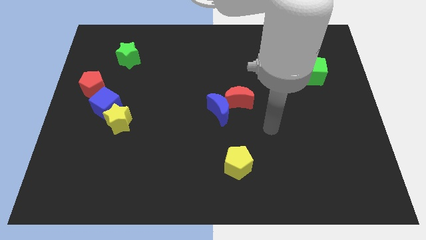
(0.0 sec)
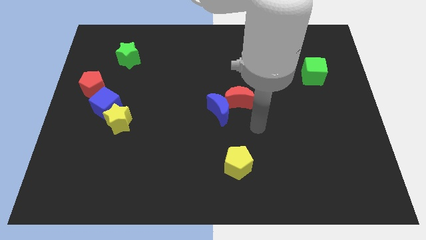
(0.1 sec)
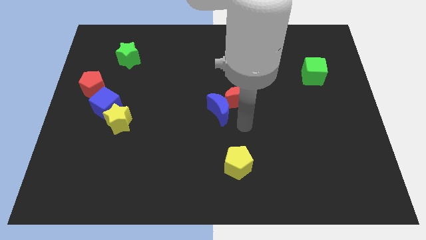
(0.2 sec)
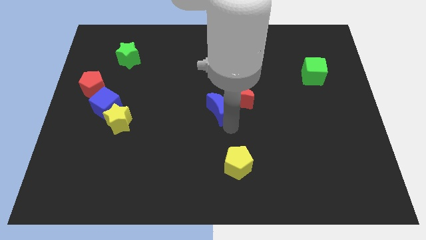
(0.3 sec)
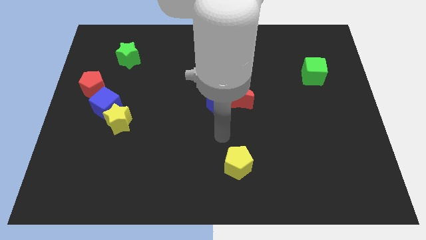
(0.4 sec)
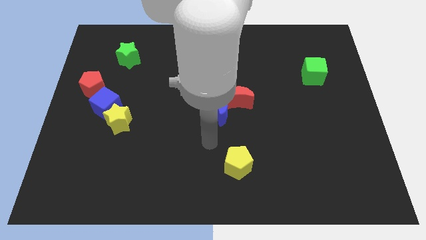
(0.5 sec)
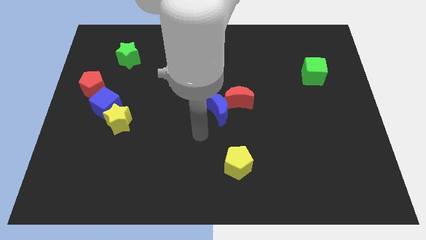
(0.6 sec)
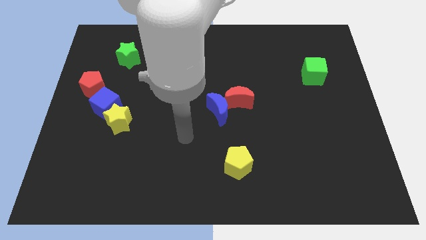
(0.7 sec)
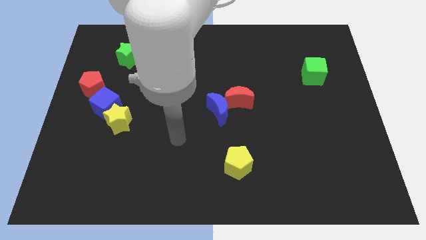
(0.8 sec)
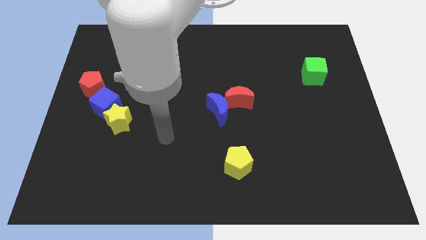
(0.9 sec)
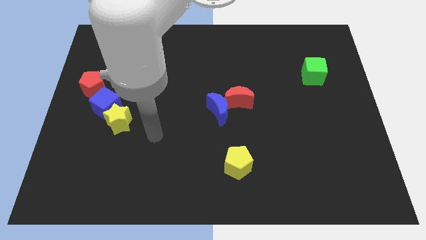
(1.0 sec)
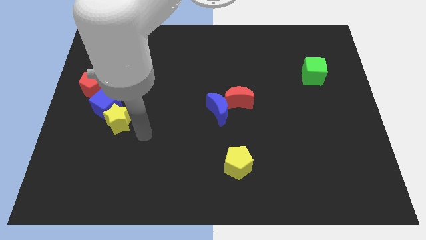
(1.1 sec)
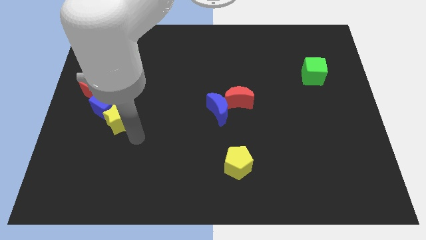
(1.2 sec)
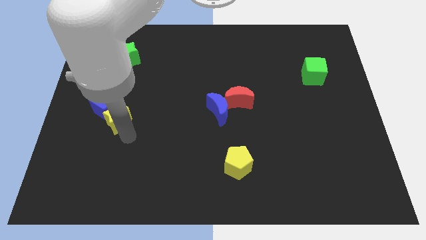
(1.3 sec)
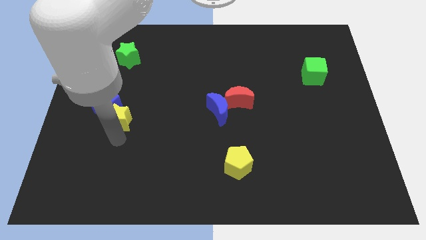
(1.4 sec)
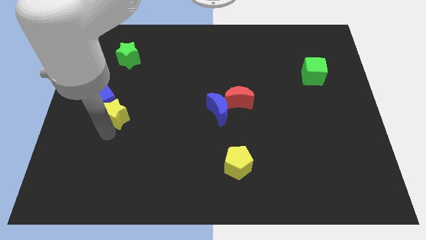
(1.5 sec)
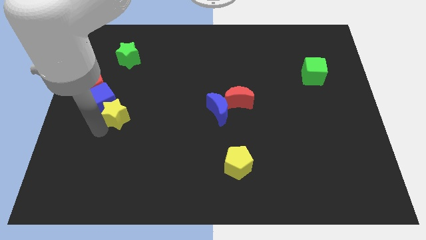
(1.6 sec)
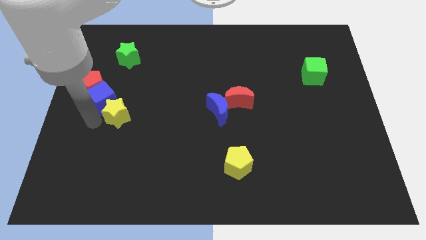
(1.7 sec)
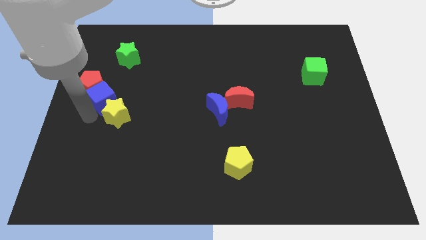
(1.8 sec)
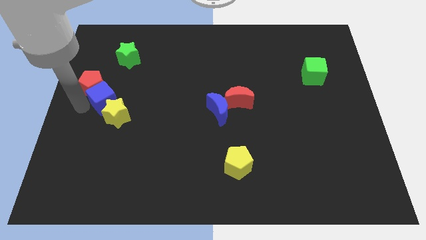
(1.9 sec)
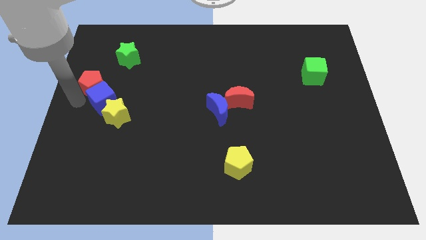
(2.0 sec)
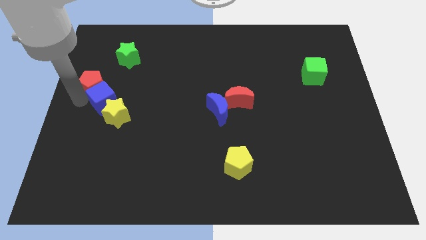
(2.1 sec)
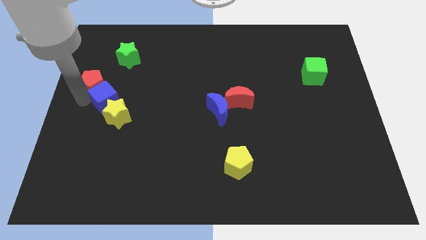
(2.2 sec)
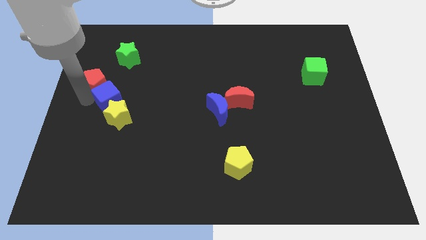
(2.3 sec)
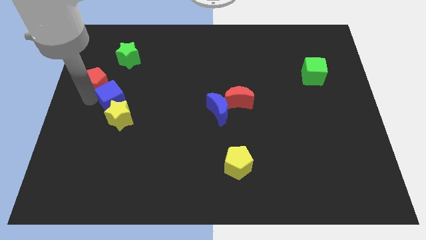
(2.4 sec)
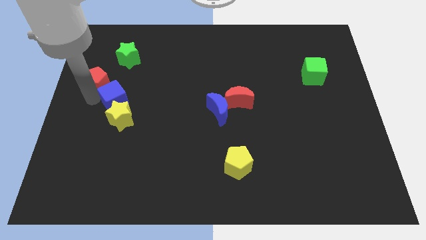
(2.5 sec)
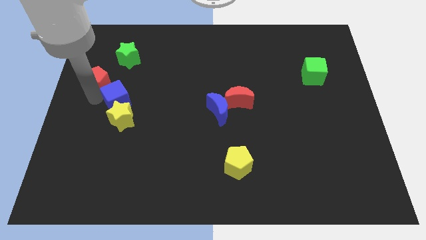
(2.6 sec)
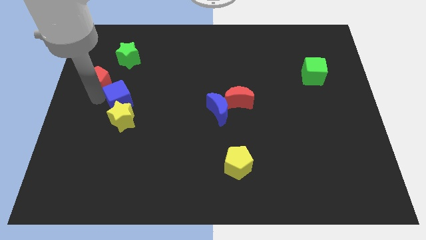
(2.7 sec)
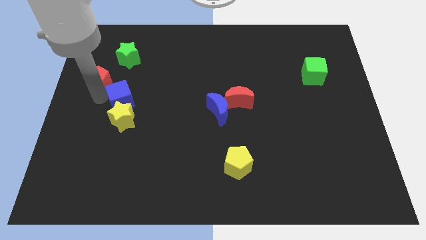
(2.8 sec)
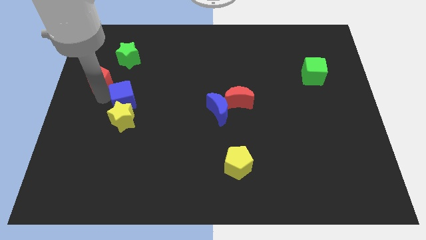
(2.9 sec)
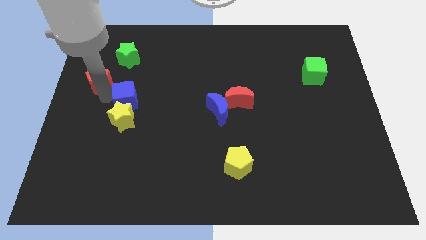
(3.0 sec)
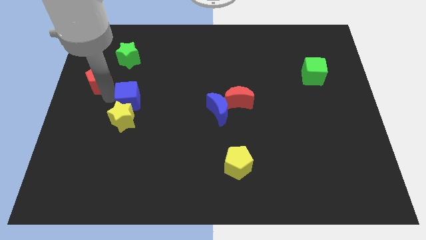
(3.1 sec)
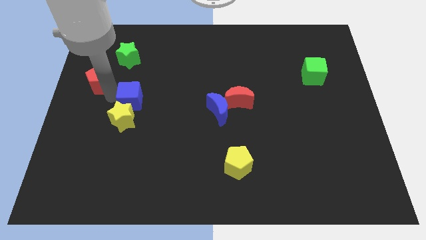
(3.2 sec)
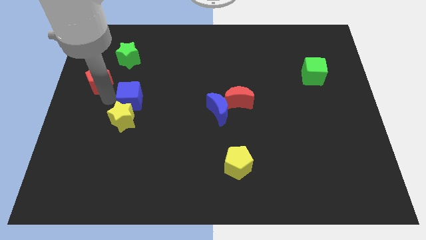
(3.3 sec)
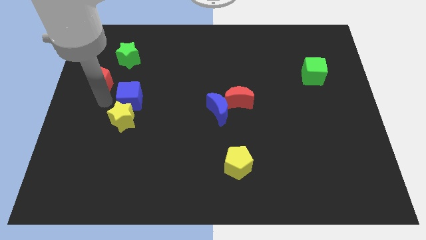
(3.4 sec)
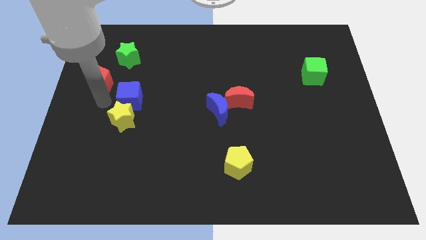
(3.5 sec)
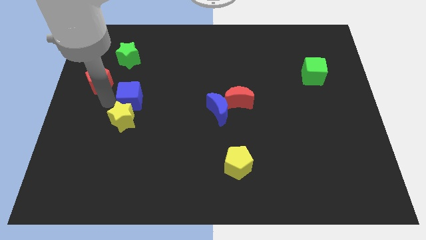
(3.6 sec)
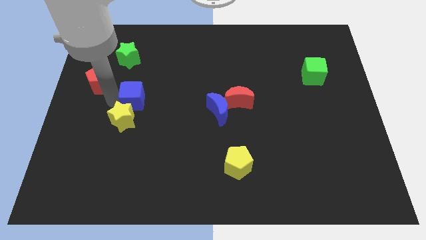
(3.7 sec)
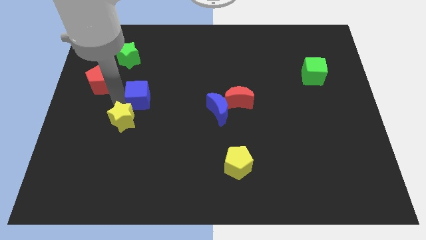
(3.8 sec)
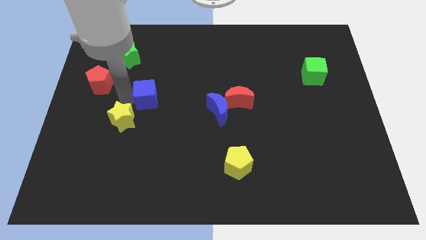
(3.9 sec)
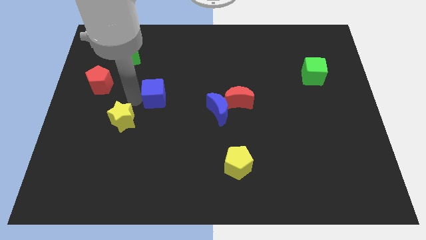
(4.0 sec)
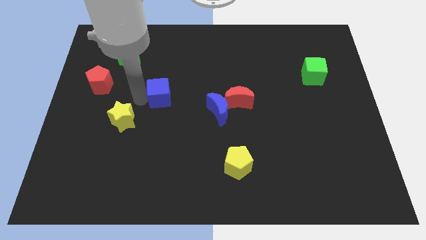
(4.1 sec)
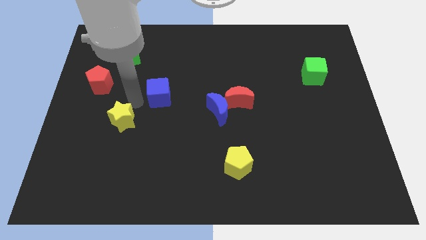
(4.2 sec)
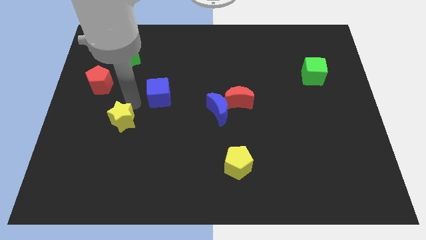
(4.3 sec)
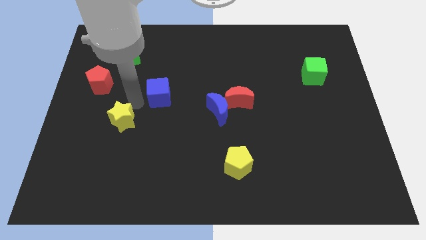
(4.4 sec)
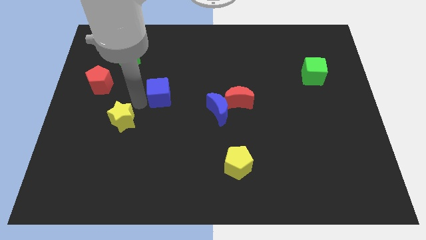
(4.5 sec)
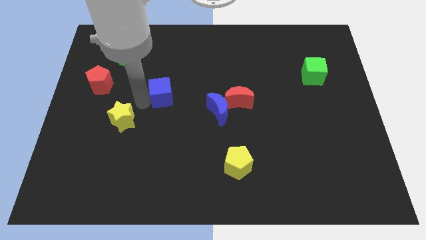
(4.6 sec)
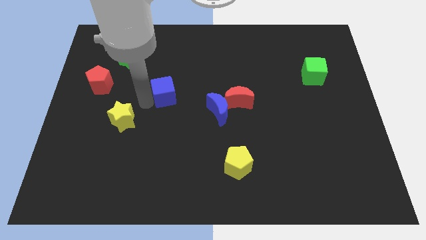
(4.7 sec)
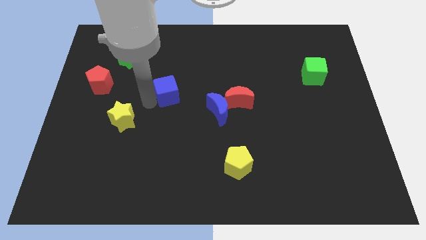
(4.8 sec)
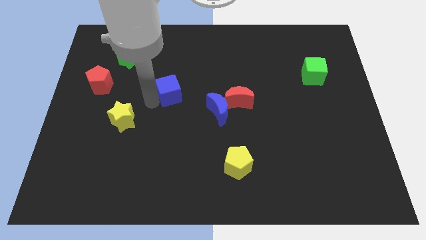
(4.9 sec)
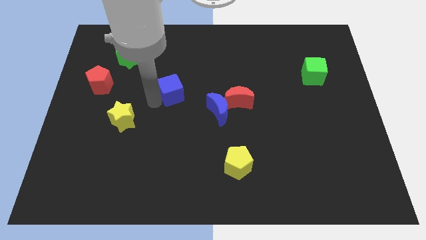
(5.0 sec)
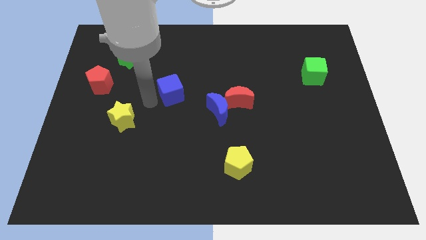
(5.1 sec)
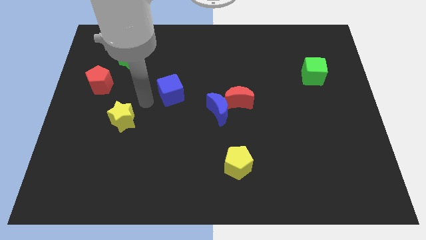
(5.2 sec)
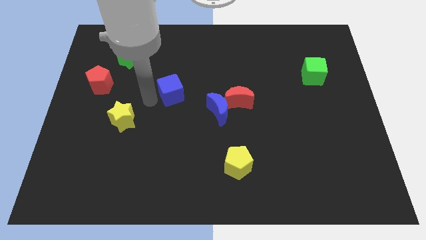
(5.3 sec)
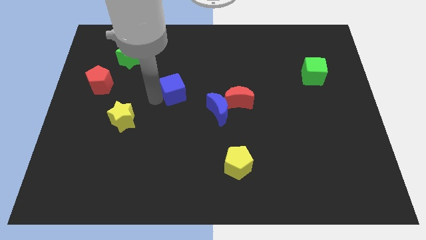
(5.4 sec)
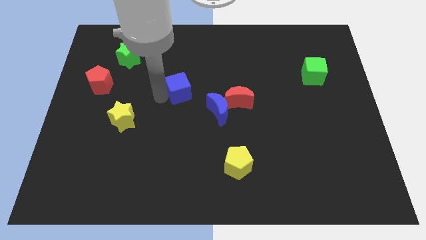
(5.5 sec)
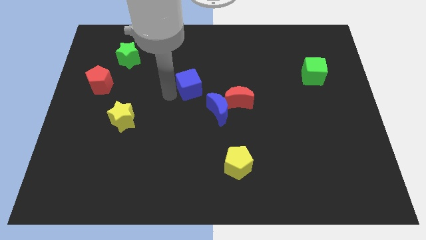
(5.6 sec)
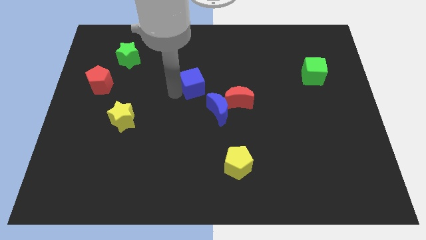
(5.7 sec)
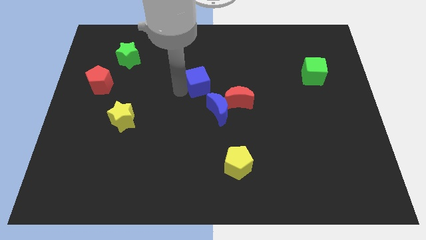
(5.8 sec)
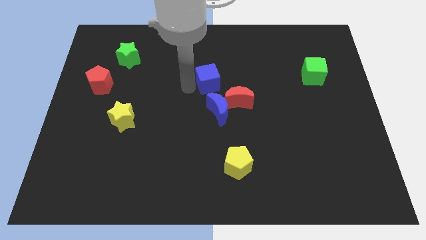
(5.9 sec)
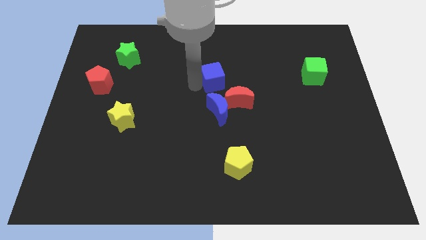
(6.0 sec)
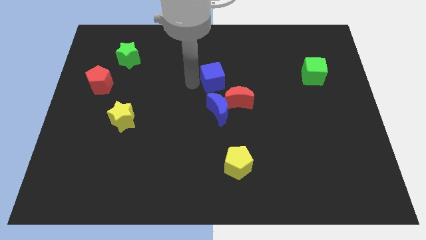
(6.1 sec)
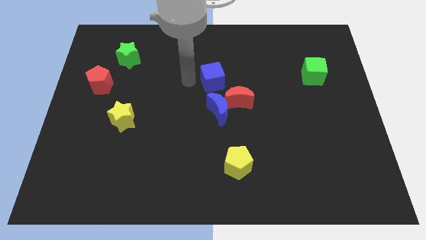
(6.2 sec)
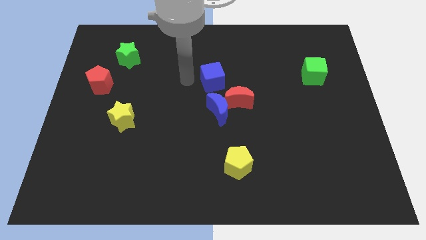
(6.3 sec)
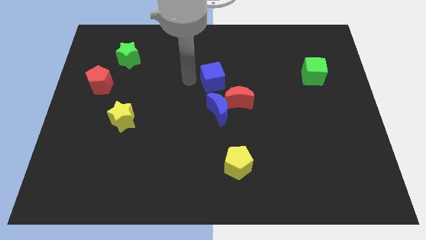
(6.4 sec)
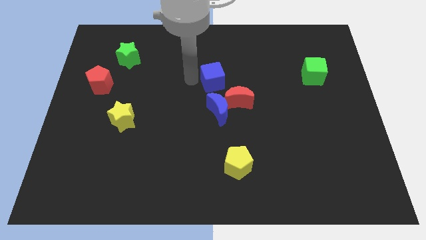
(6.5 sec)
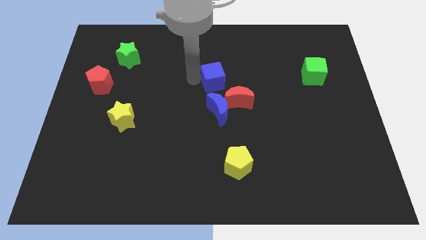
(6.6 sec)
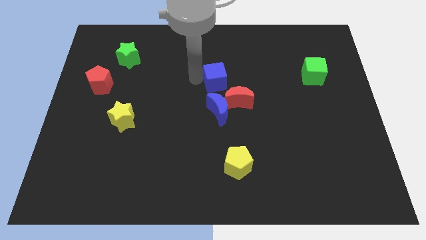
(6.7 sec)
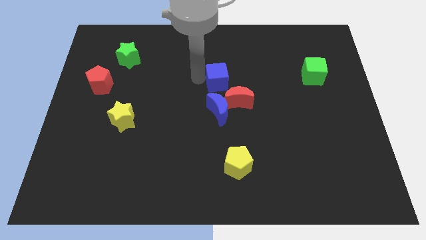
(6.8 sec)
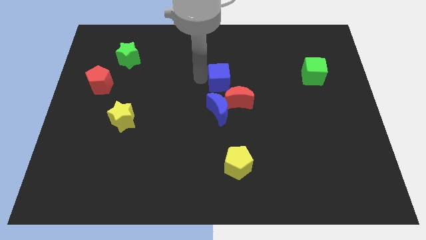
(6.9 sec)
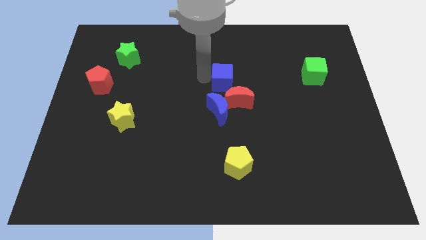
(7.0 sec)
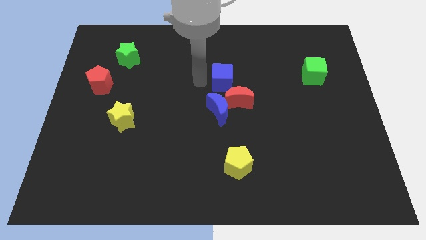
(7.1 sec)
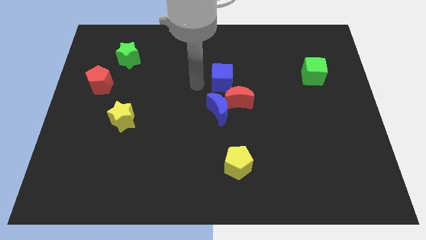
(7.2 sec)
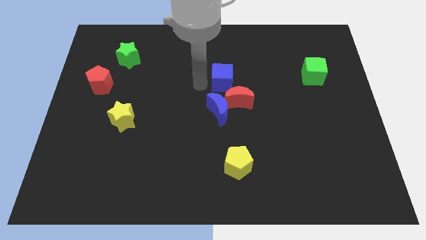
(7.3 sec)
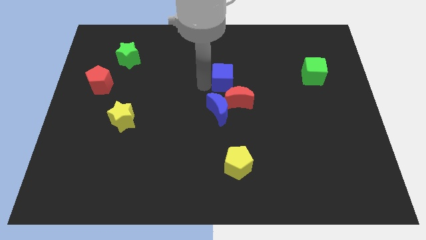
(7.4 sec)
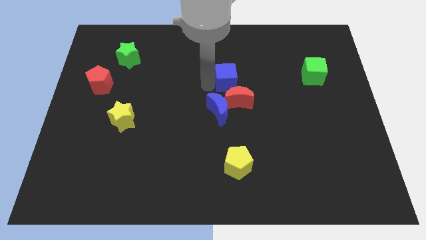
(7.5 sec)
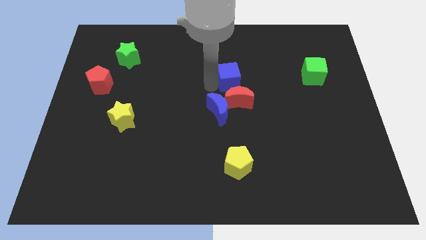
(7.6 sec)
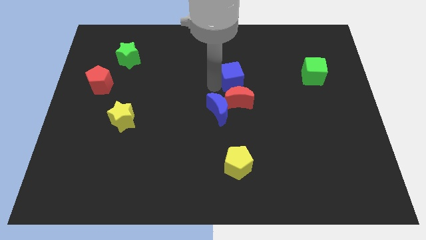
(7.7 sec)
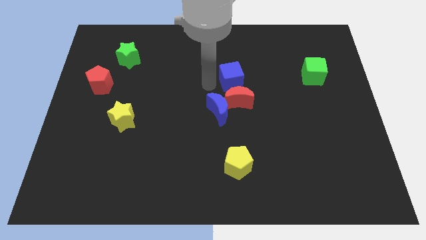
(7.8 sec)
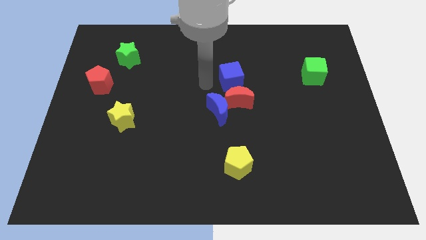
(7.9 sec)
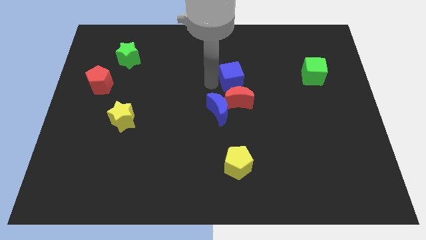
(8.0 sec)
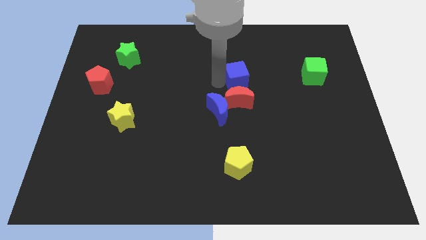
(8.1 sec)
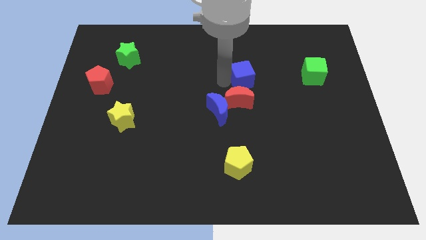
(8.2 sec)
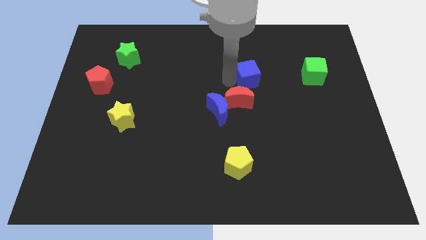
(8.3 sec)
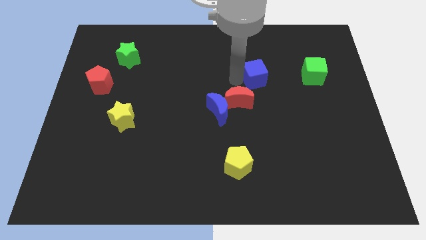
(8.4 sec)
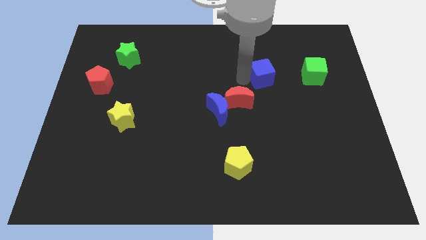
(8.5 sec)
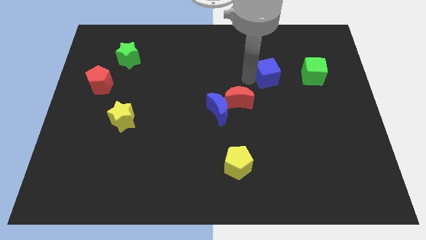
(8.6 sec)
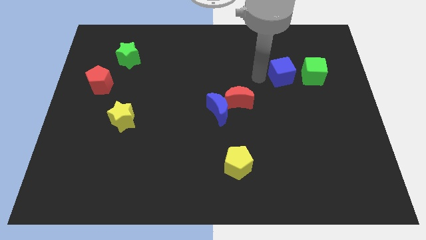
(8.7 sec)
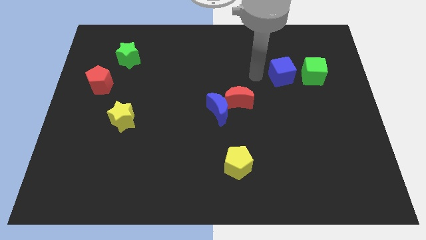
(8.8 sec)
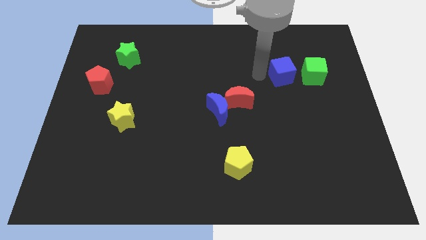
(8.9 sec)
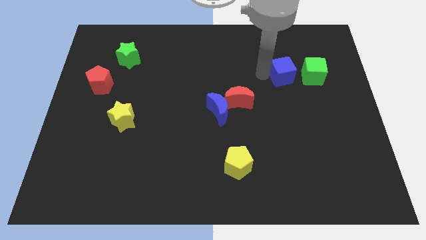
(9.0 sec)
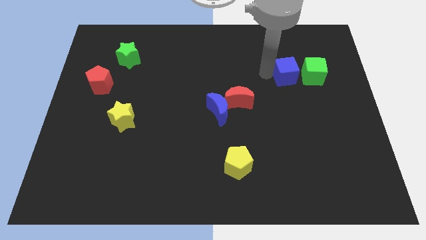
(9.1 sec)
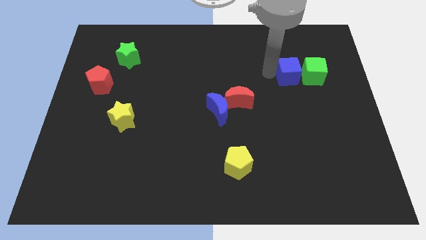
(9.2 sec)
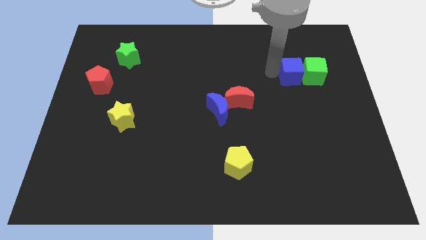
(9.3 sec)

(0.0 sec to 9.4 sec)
slide the blue cube to the green cube
